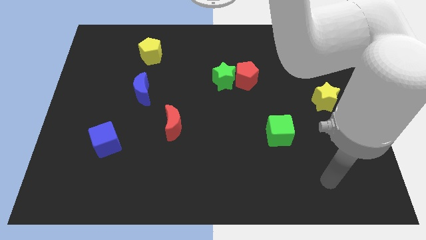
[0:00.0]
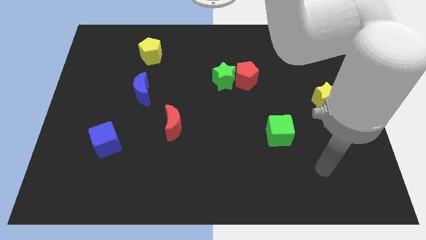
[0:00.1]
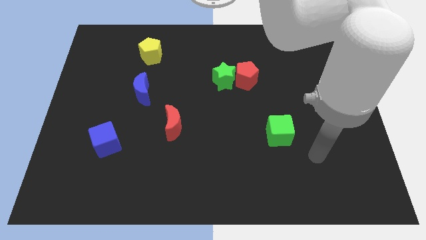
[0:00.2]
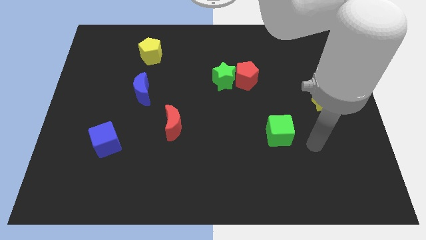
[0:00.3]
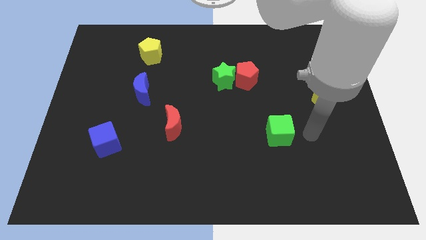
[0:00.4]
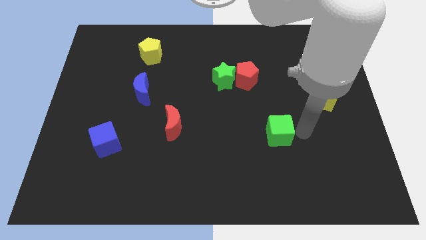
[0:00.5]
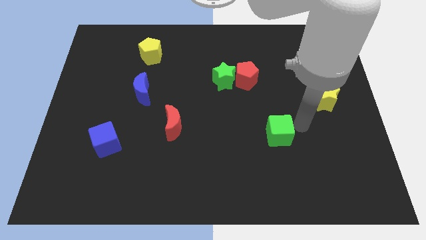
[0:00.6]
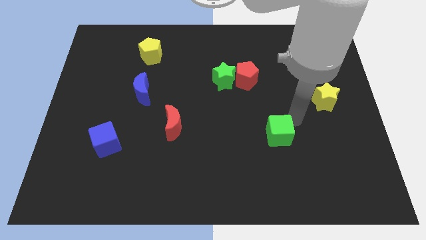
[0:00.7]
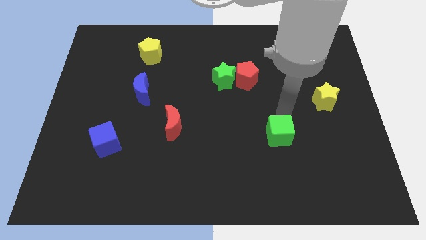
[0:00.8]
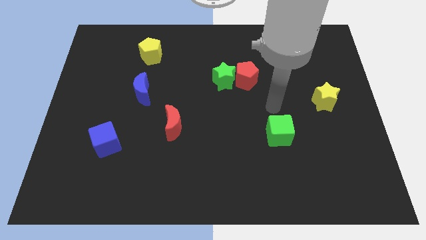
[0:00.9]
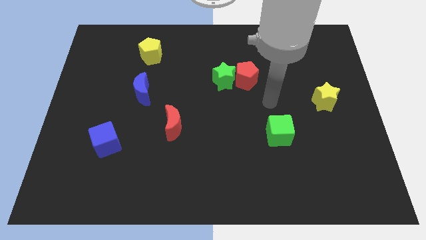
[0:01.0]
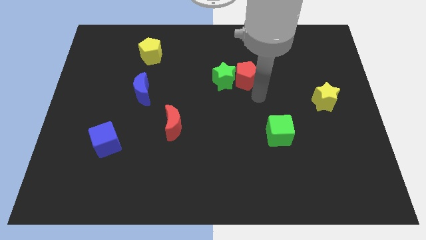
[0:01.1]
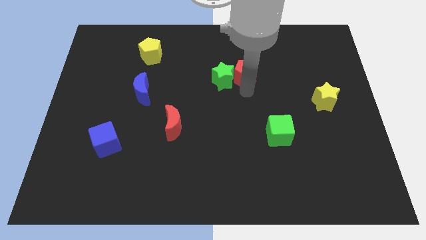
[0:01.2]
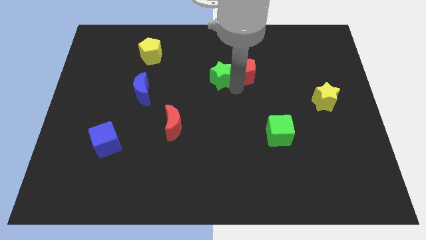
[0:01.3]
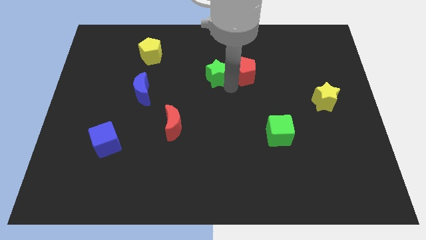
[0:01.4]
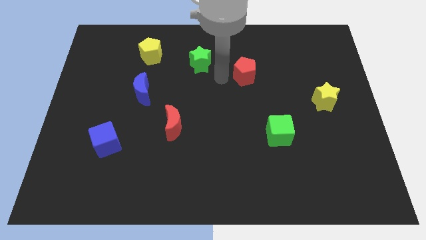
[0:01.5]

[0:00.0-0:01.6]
separate the red pentagon from the green star

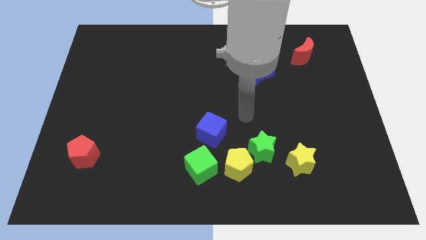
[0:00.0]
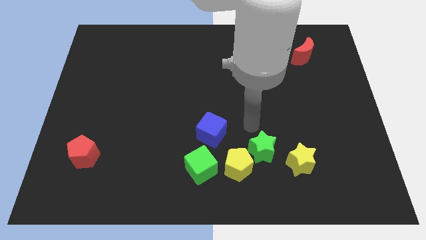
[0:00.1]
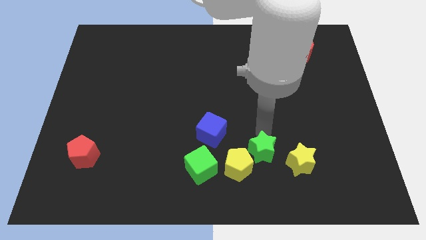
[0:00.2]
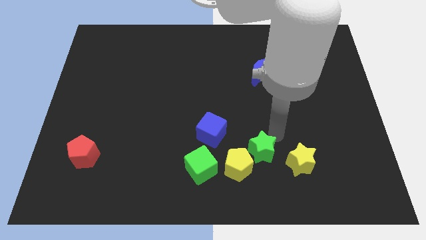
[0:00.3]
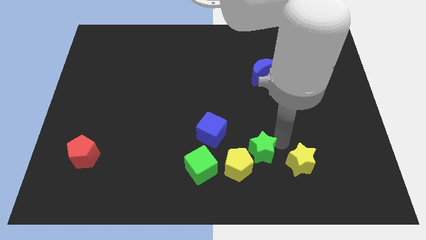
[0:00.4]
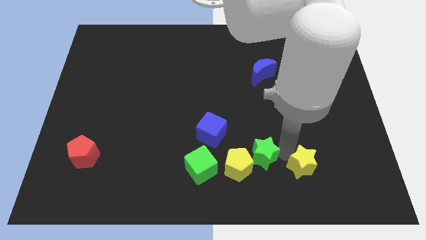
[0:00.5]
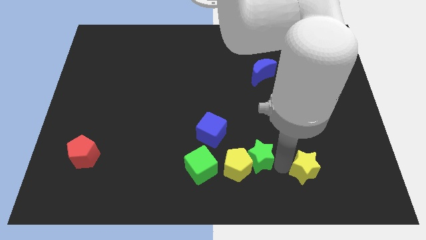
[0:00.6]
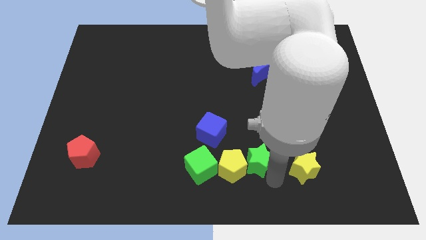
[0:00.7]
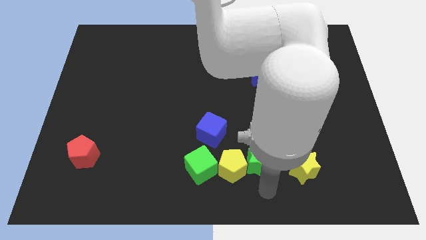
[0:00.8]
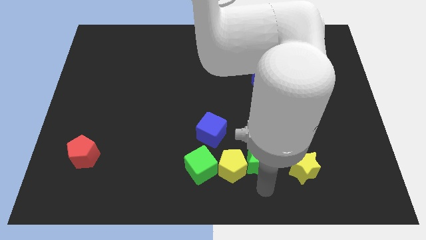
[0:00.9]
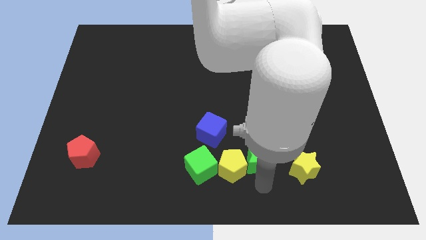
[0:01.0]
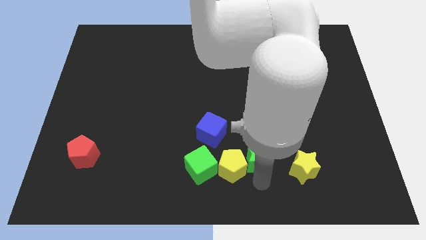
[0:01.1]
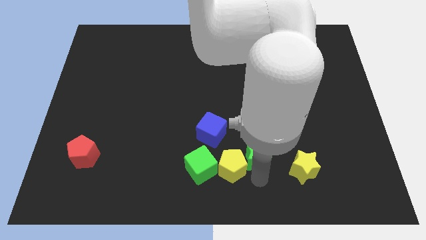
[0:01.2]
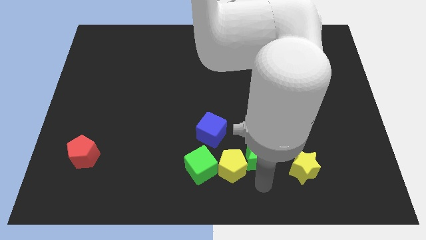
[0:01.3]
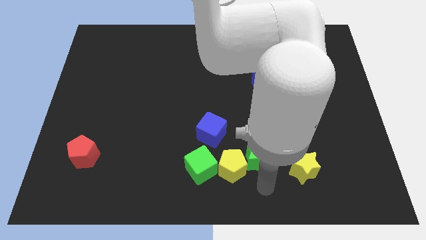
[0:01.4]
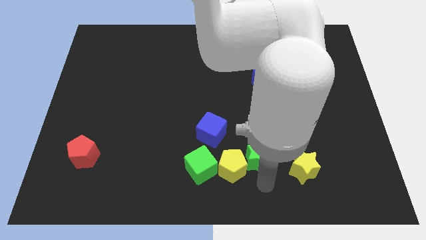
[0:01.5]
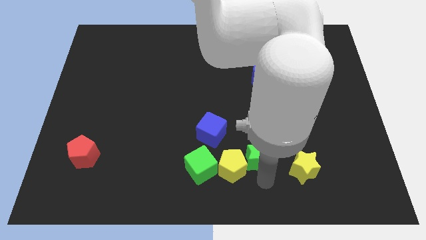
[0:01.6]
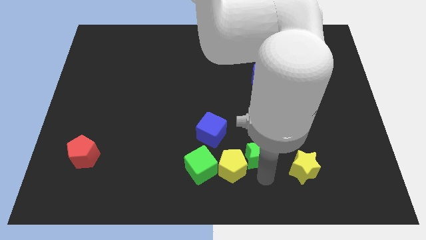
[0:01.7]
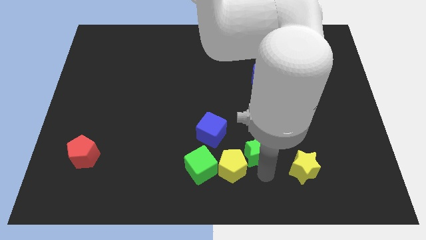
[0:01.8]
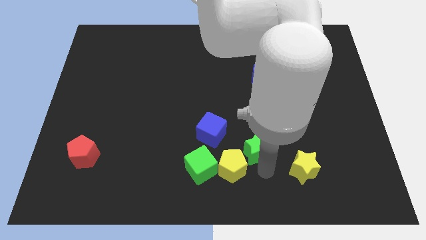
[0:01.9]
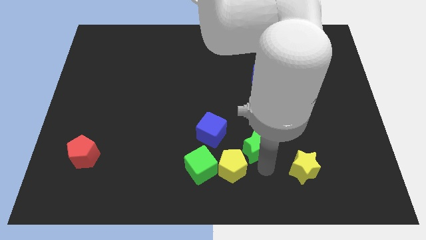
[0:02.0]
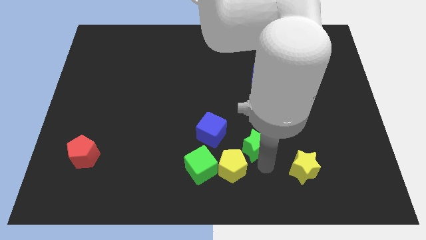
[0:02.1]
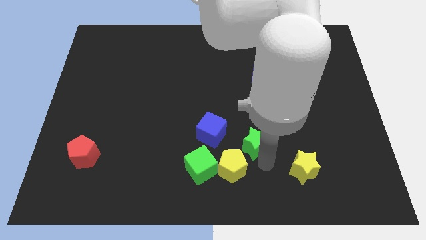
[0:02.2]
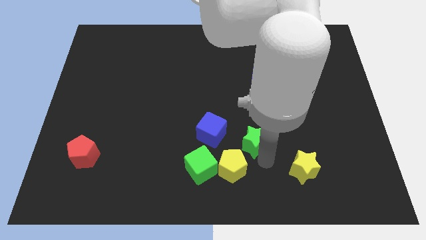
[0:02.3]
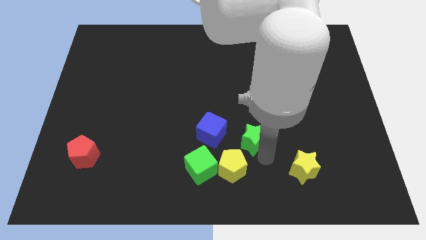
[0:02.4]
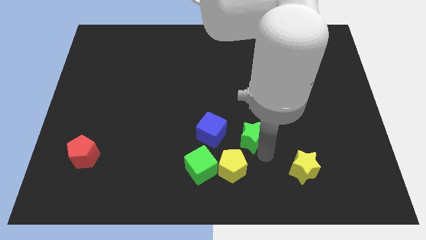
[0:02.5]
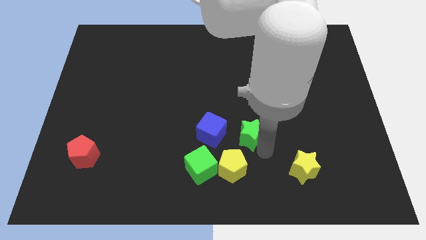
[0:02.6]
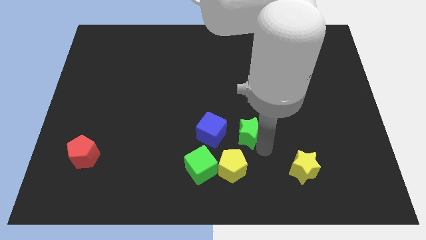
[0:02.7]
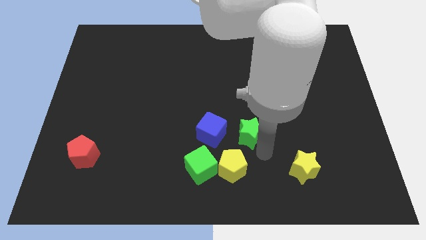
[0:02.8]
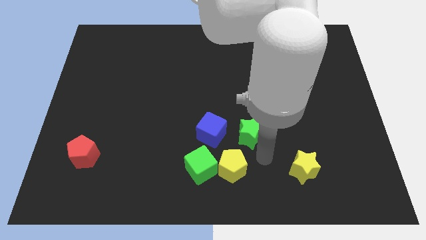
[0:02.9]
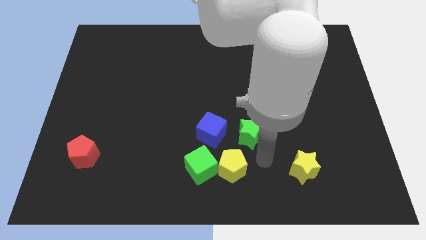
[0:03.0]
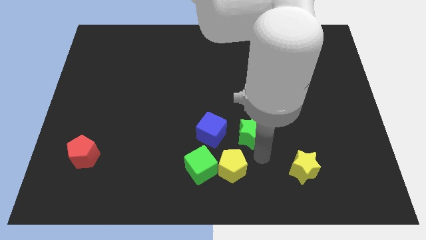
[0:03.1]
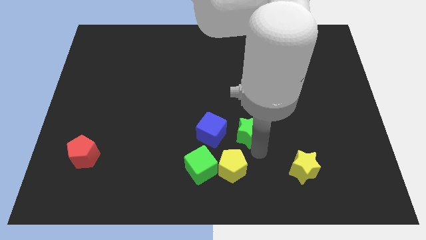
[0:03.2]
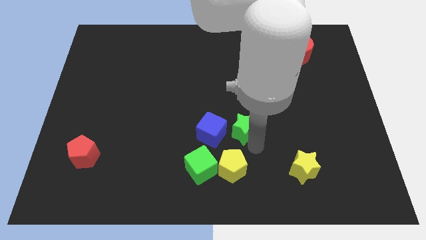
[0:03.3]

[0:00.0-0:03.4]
move the green star away from the yellow pentagon and yellow star

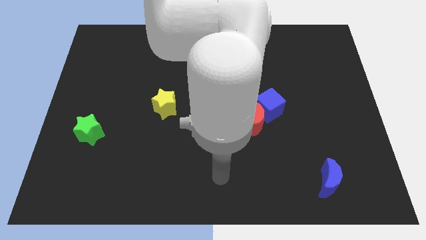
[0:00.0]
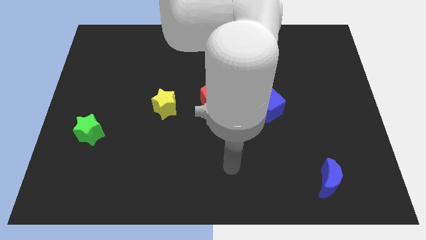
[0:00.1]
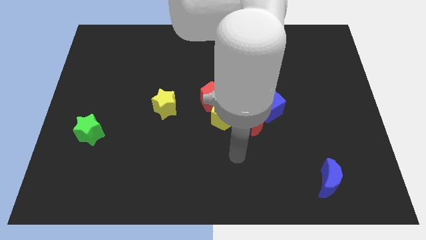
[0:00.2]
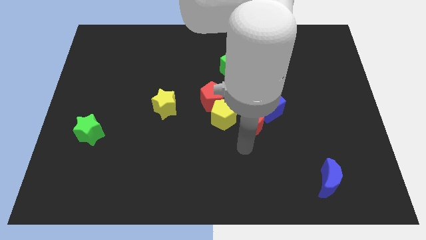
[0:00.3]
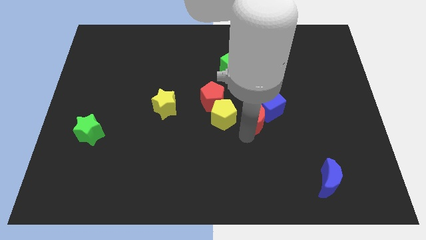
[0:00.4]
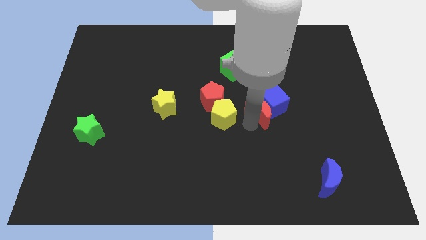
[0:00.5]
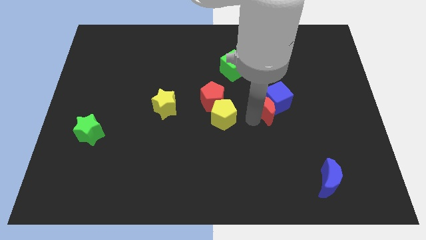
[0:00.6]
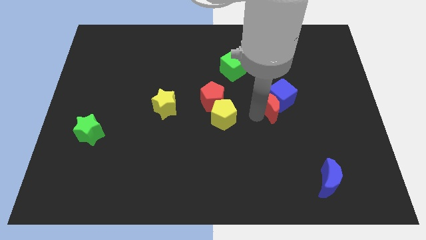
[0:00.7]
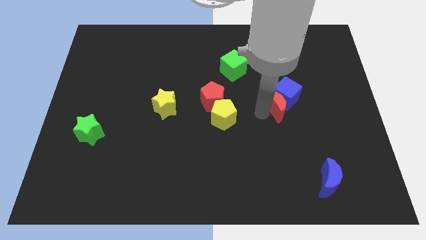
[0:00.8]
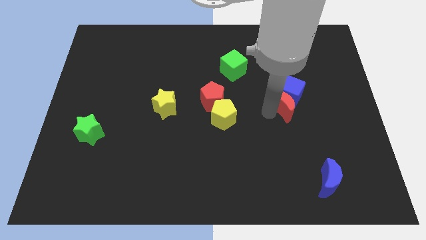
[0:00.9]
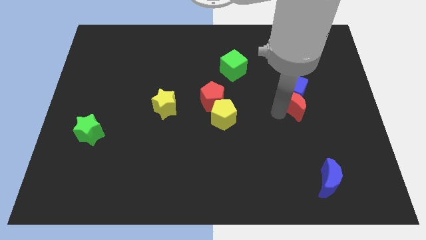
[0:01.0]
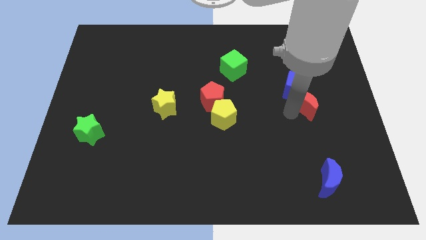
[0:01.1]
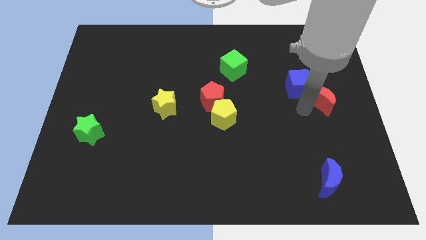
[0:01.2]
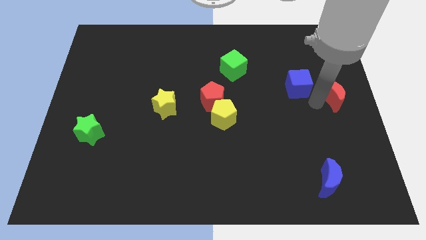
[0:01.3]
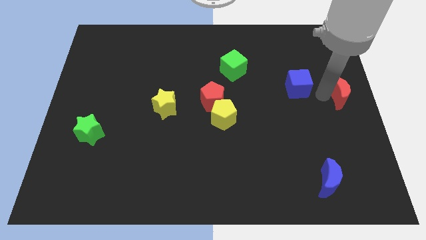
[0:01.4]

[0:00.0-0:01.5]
move the blue cube away from the red moon

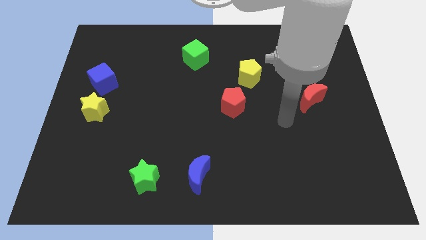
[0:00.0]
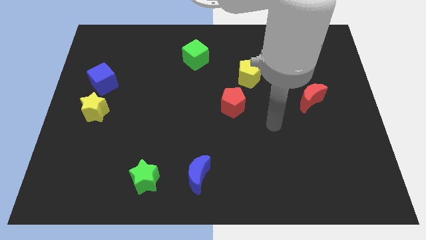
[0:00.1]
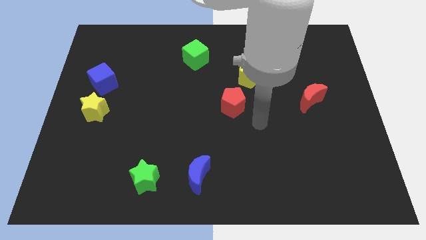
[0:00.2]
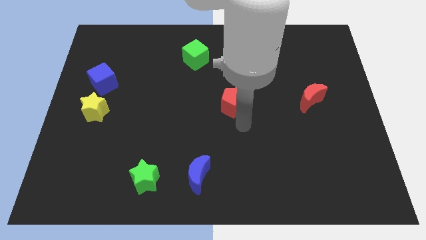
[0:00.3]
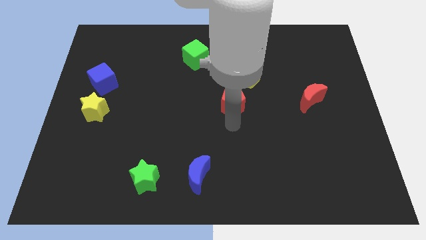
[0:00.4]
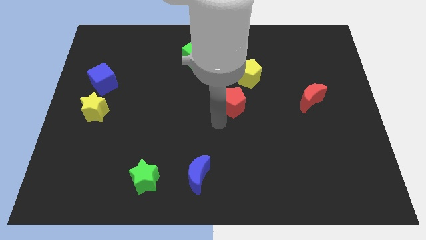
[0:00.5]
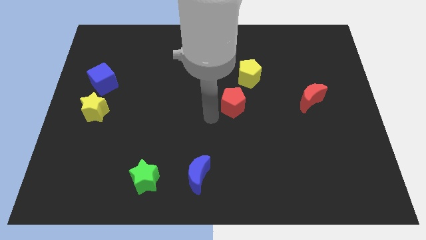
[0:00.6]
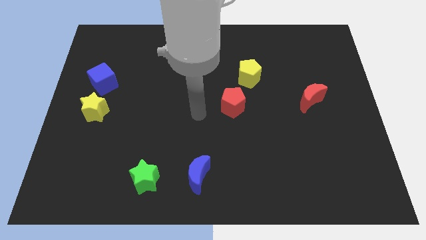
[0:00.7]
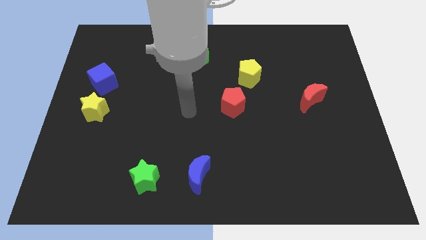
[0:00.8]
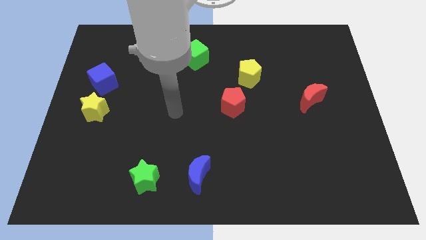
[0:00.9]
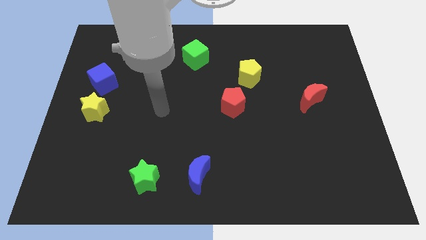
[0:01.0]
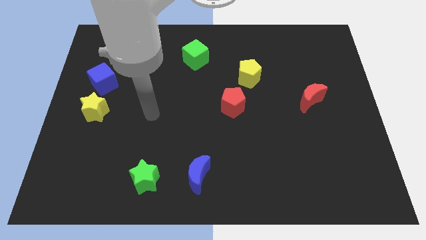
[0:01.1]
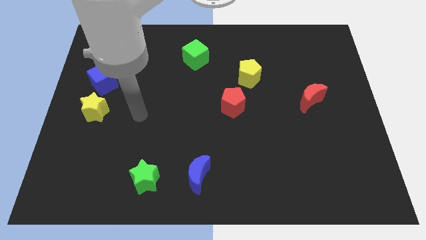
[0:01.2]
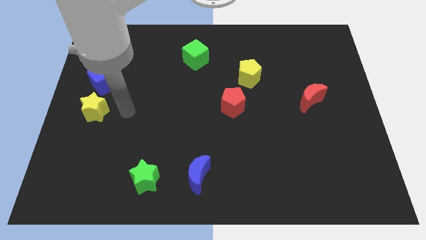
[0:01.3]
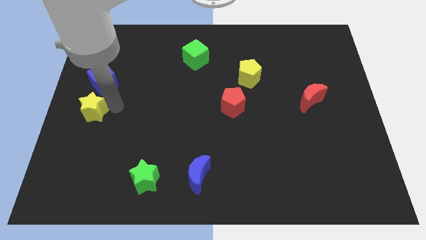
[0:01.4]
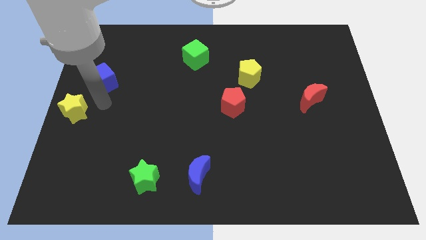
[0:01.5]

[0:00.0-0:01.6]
pull the blue cube apart from the yellow star

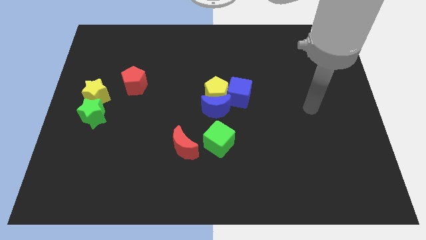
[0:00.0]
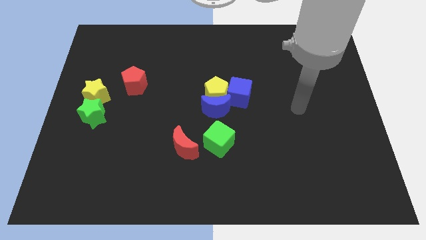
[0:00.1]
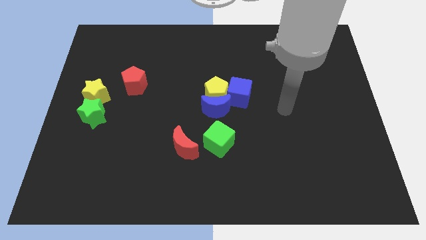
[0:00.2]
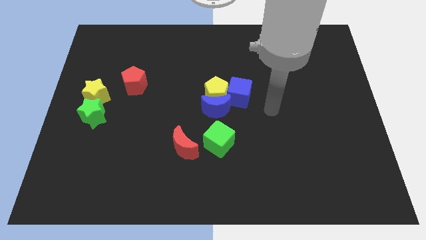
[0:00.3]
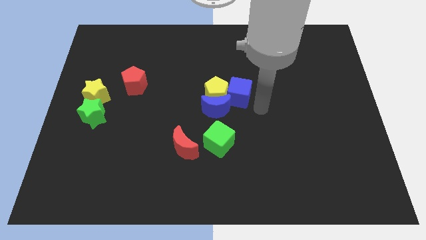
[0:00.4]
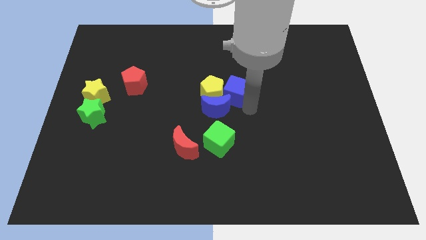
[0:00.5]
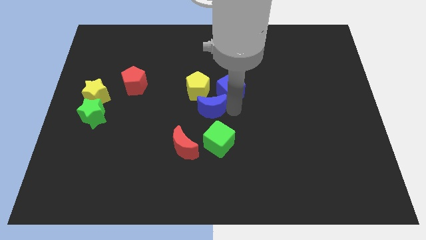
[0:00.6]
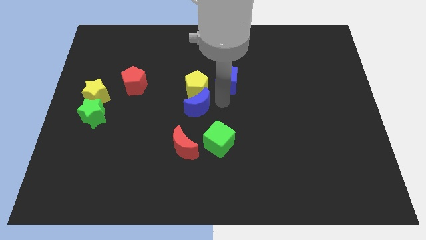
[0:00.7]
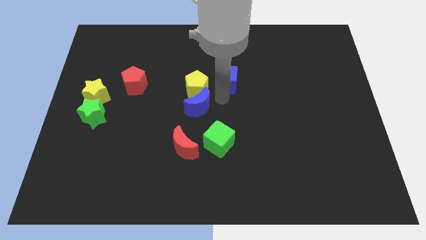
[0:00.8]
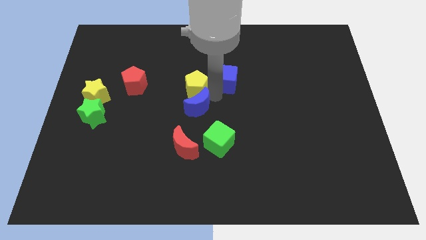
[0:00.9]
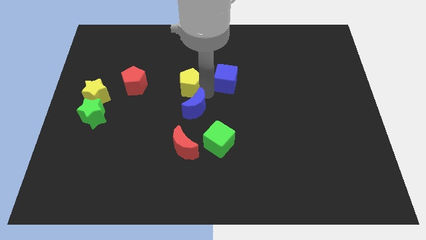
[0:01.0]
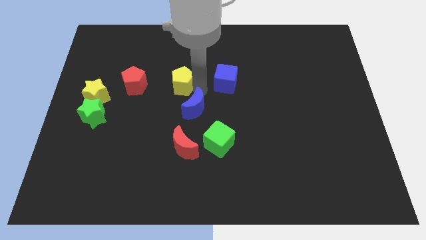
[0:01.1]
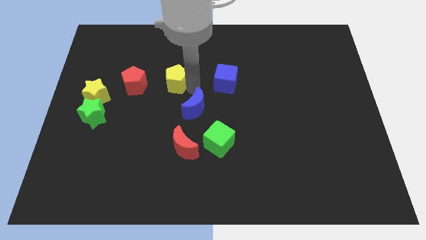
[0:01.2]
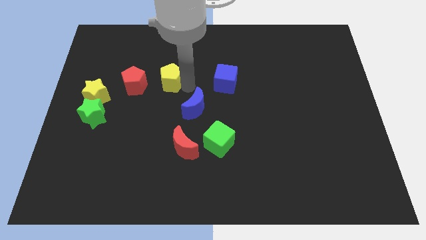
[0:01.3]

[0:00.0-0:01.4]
separate the yellow pentagon from the blue moon and blue cube
